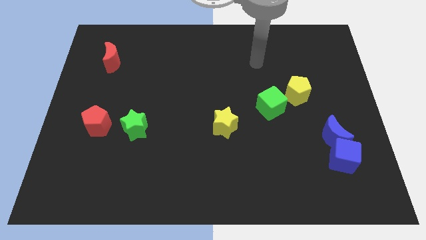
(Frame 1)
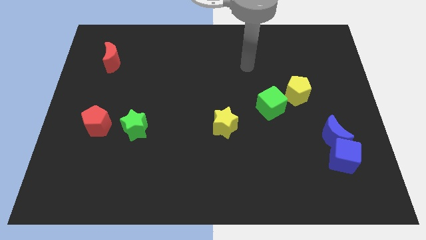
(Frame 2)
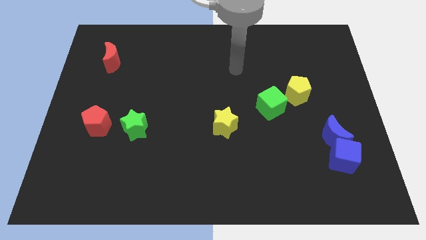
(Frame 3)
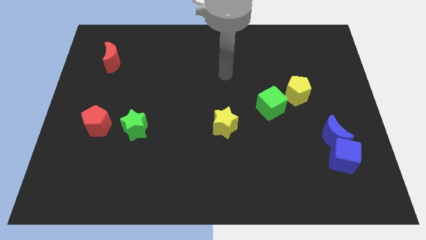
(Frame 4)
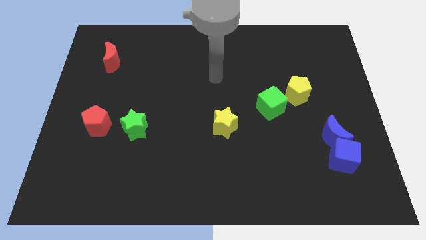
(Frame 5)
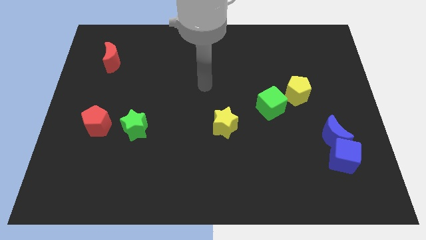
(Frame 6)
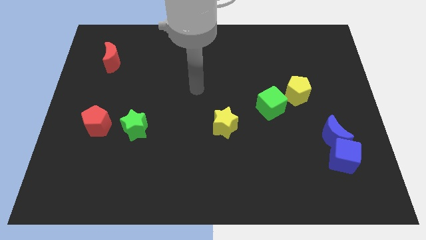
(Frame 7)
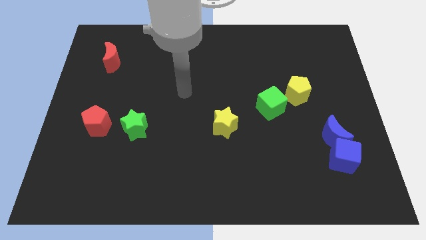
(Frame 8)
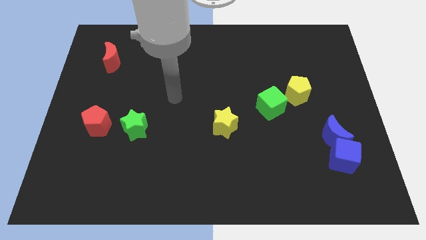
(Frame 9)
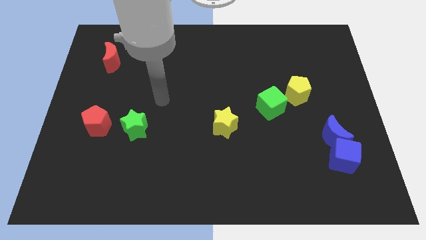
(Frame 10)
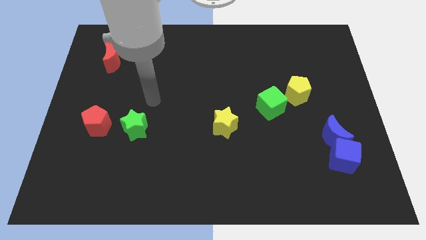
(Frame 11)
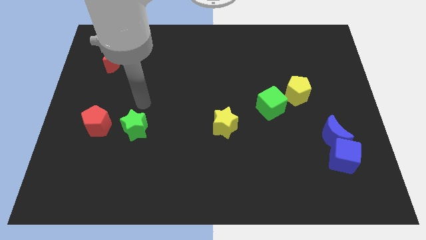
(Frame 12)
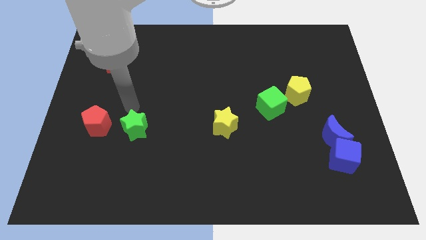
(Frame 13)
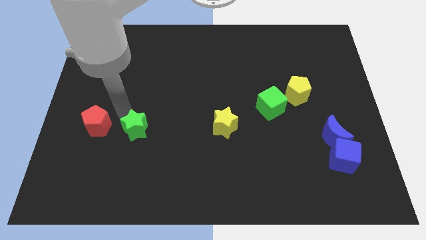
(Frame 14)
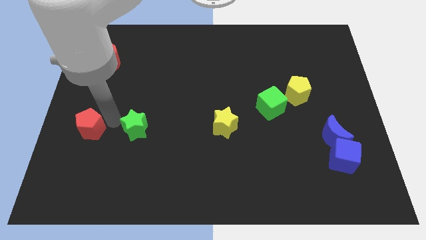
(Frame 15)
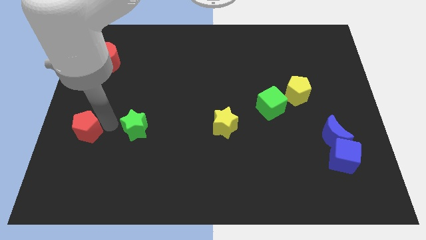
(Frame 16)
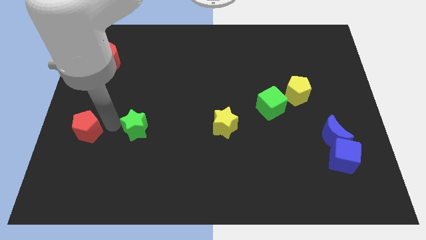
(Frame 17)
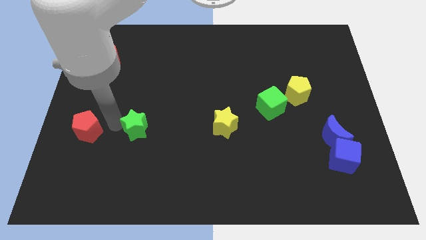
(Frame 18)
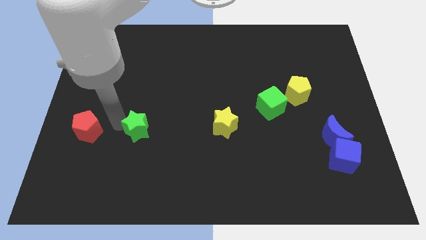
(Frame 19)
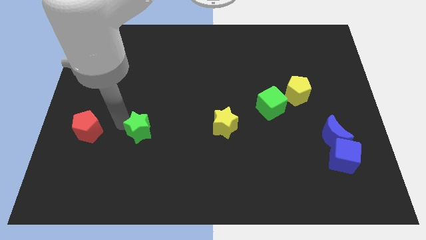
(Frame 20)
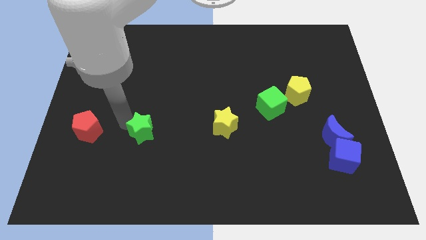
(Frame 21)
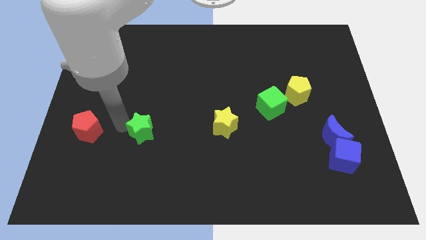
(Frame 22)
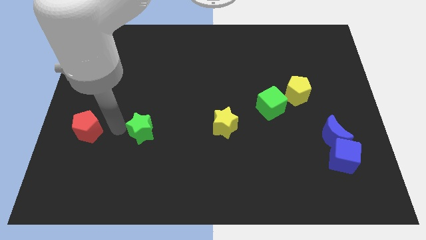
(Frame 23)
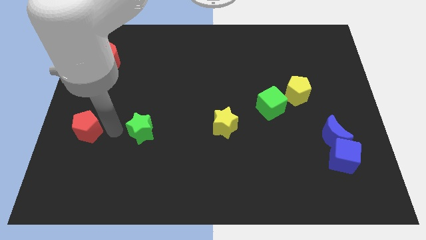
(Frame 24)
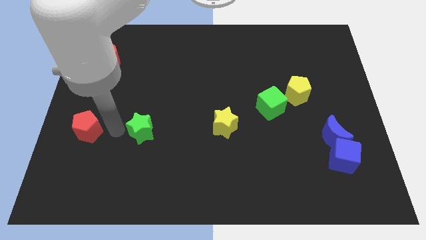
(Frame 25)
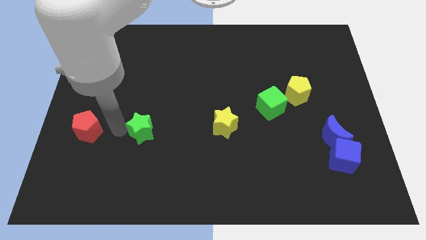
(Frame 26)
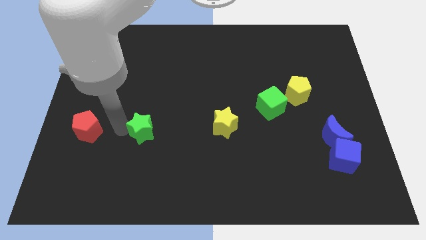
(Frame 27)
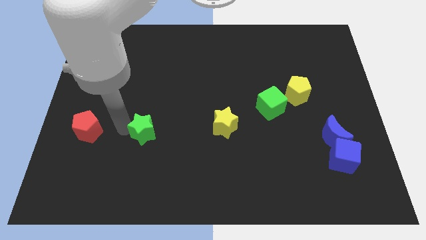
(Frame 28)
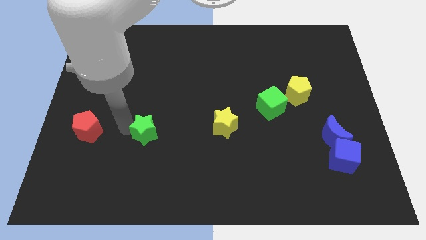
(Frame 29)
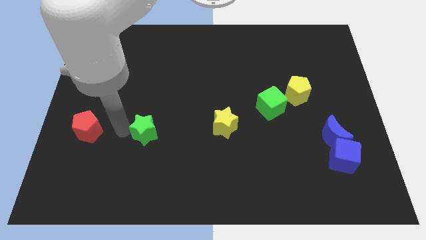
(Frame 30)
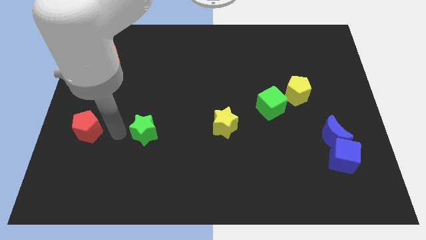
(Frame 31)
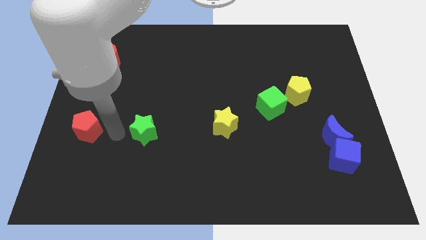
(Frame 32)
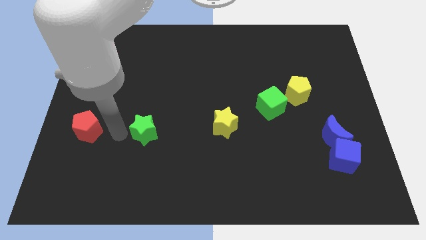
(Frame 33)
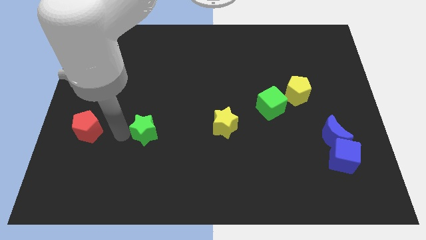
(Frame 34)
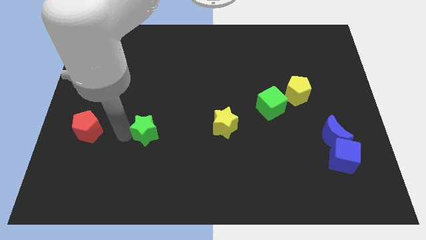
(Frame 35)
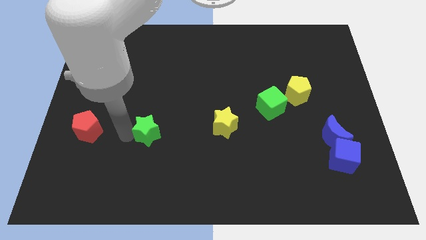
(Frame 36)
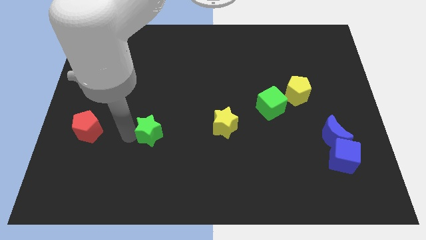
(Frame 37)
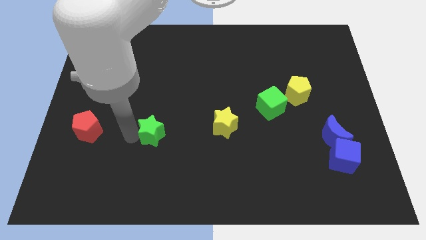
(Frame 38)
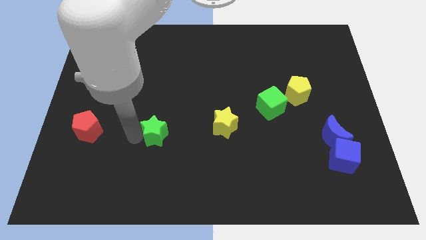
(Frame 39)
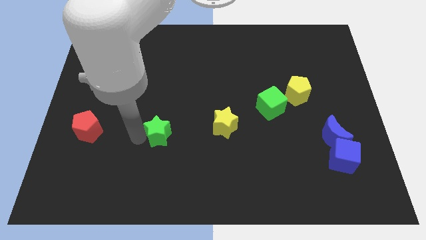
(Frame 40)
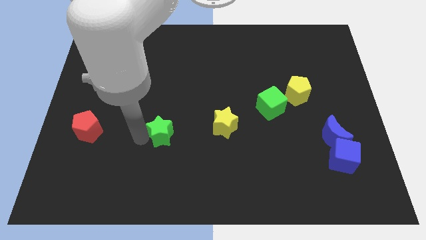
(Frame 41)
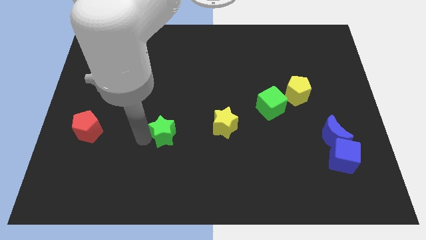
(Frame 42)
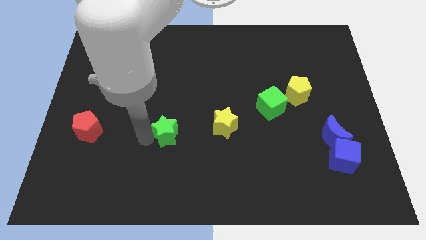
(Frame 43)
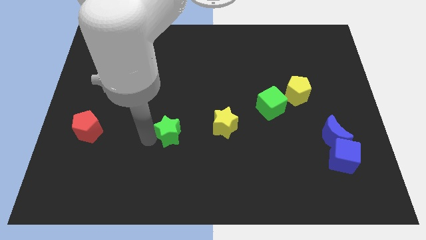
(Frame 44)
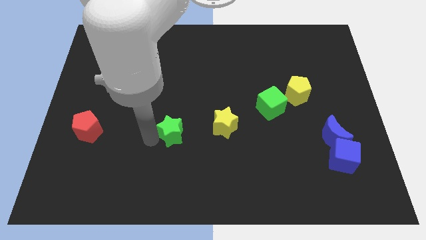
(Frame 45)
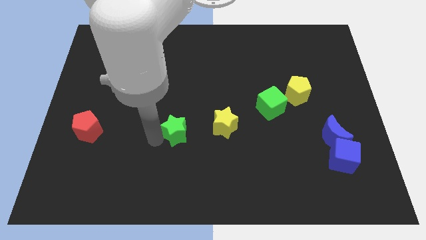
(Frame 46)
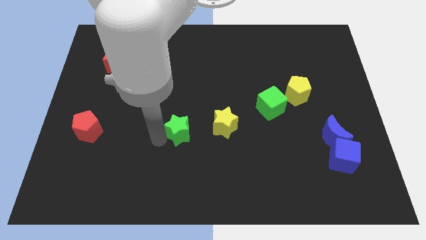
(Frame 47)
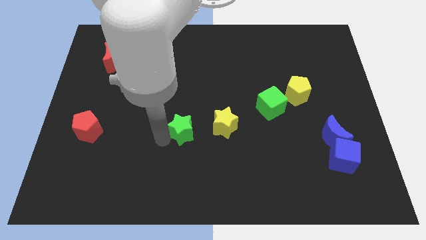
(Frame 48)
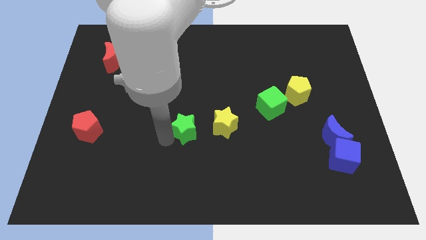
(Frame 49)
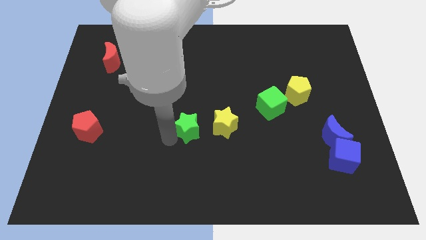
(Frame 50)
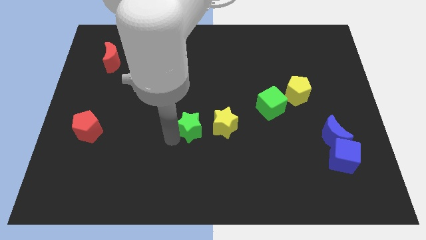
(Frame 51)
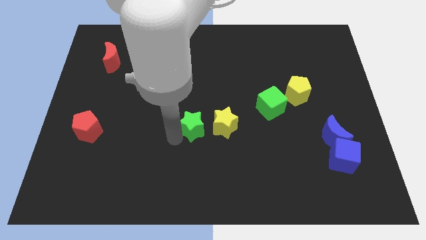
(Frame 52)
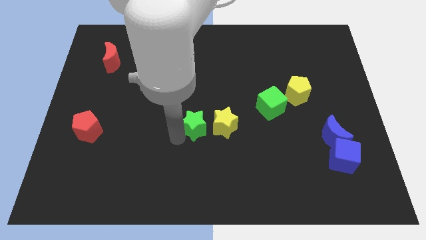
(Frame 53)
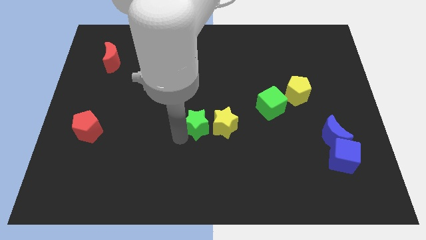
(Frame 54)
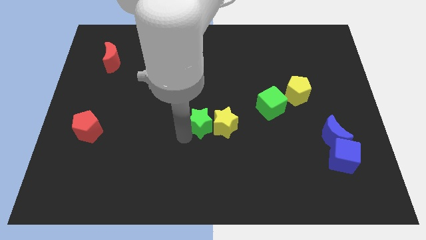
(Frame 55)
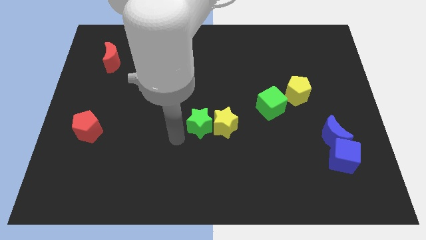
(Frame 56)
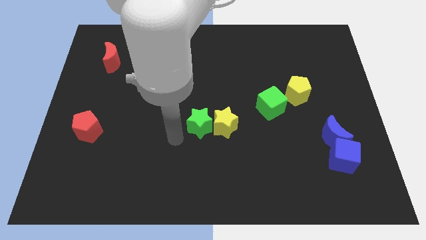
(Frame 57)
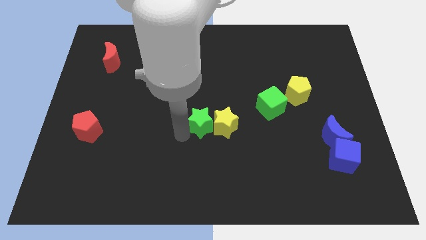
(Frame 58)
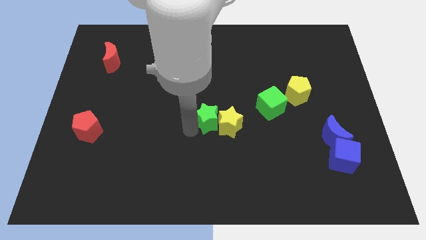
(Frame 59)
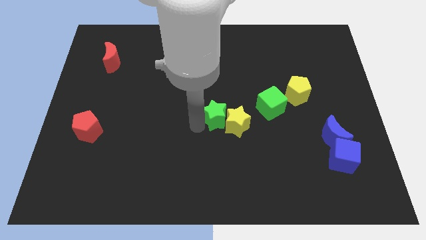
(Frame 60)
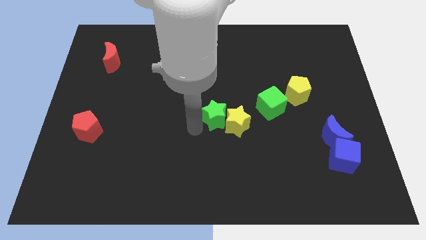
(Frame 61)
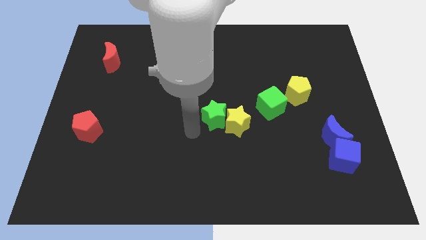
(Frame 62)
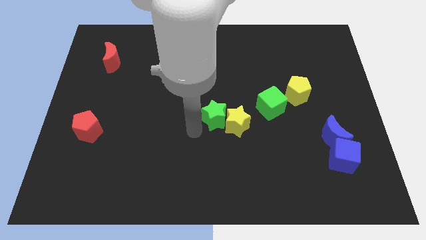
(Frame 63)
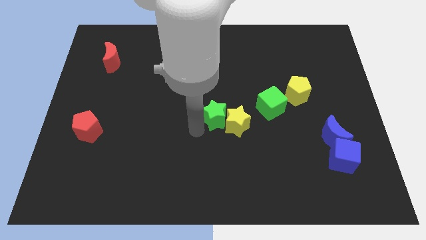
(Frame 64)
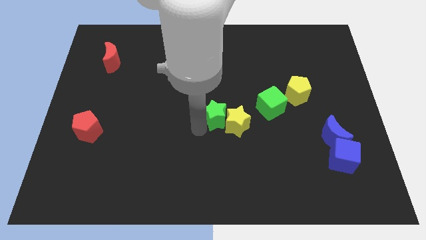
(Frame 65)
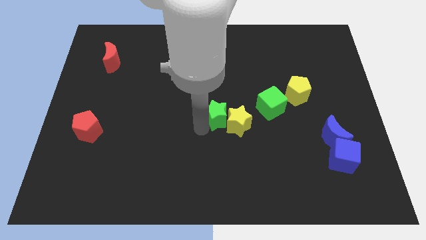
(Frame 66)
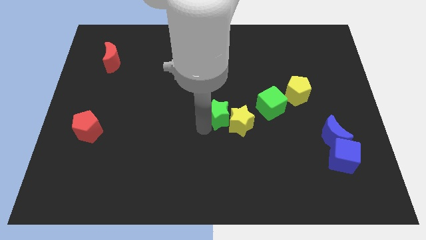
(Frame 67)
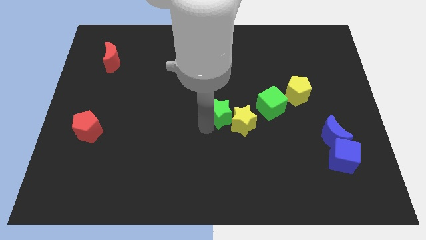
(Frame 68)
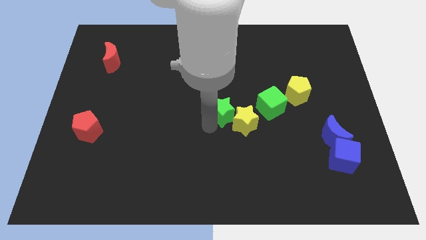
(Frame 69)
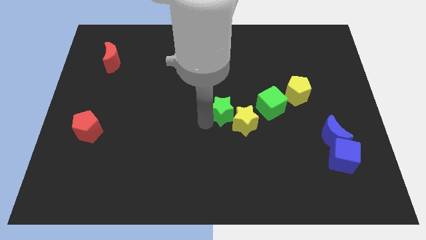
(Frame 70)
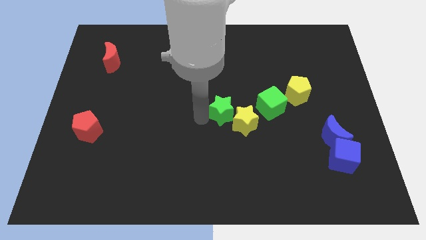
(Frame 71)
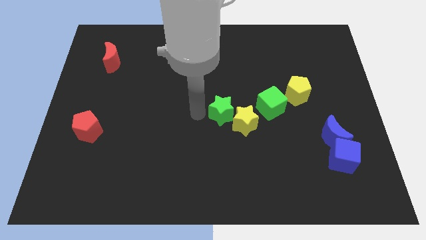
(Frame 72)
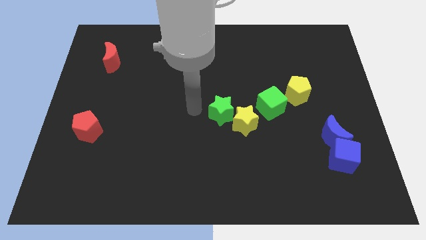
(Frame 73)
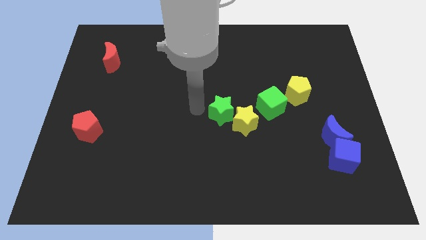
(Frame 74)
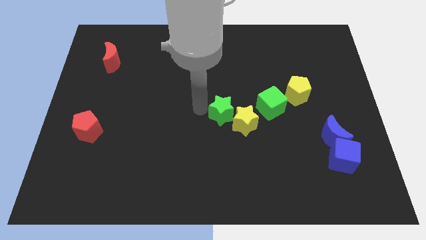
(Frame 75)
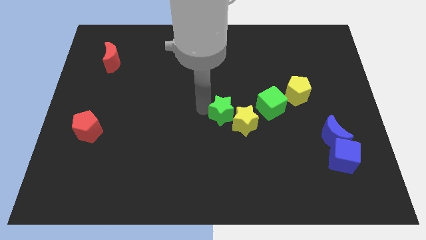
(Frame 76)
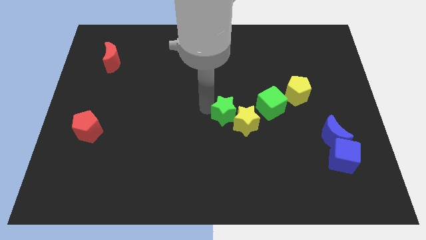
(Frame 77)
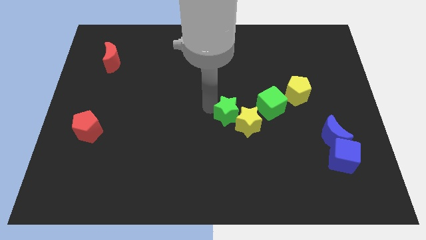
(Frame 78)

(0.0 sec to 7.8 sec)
slide the green star to the right

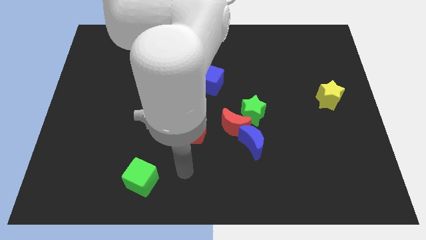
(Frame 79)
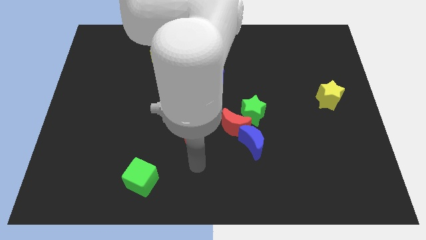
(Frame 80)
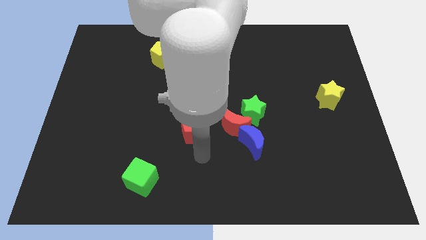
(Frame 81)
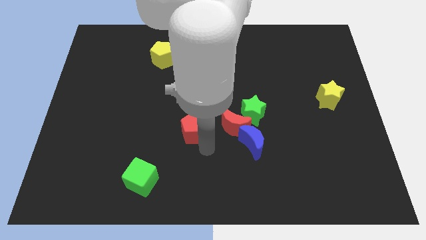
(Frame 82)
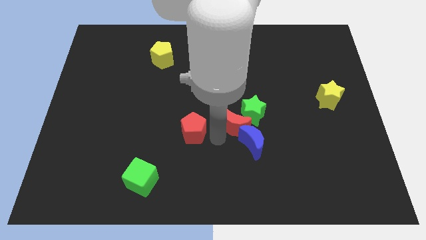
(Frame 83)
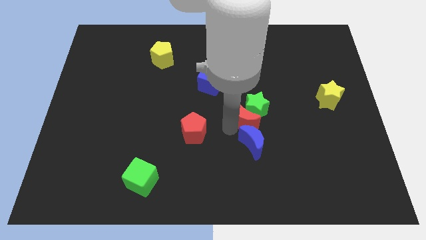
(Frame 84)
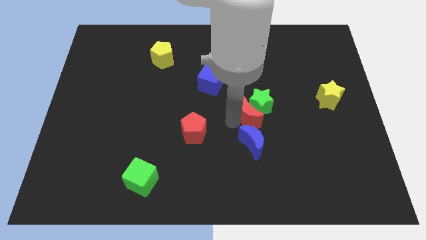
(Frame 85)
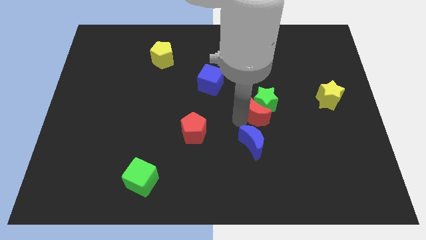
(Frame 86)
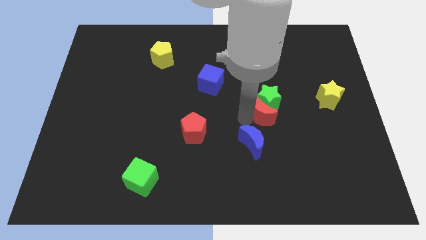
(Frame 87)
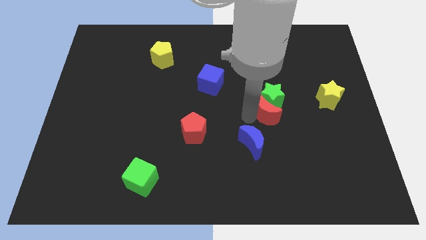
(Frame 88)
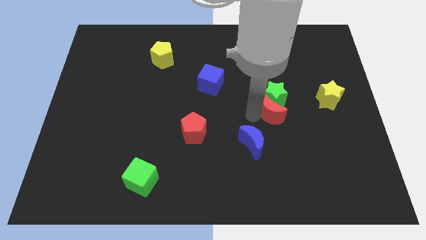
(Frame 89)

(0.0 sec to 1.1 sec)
move the green star a bit diagonally upwards and right
